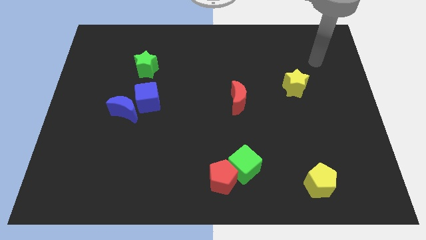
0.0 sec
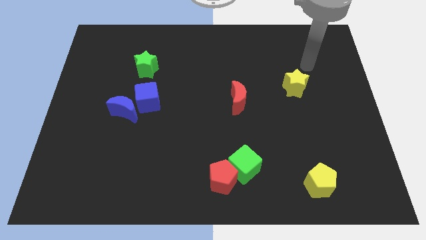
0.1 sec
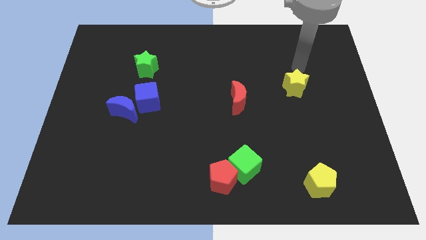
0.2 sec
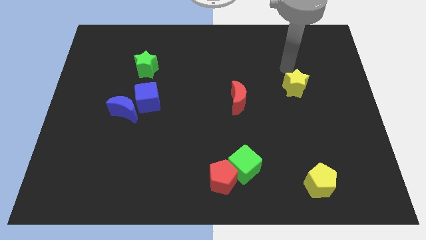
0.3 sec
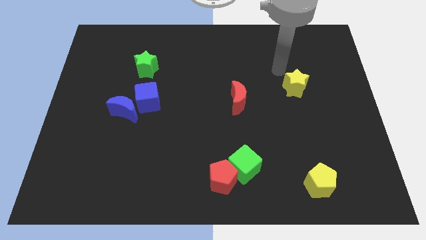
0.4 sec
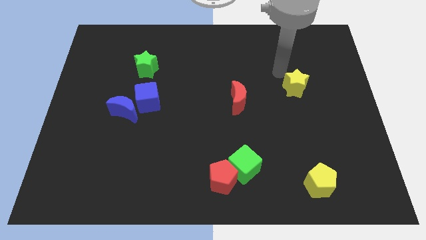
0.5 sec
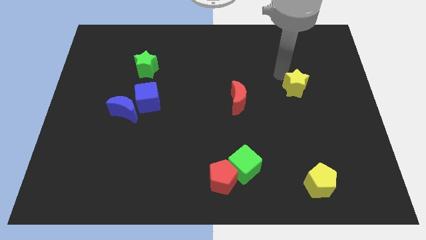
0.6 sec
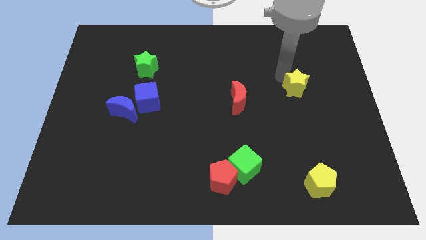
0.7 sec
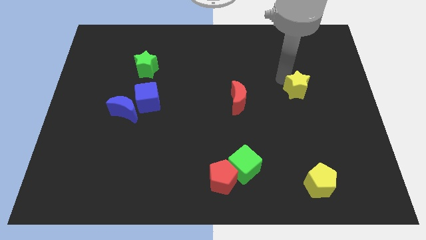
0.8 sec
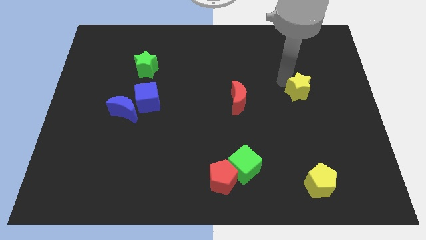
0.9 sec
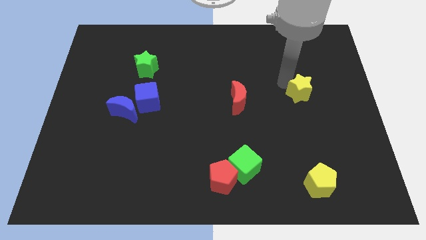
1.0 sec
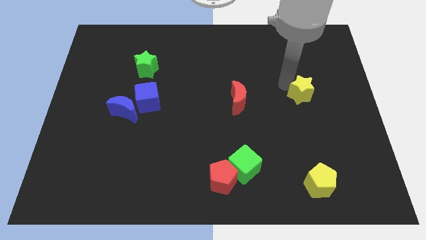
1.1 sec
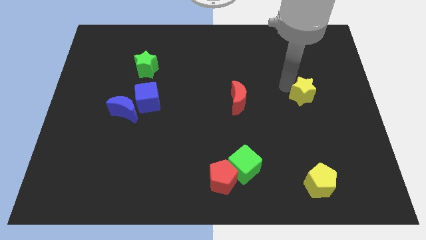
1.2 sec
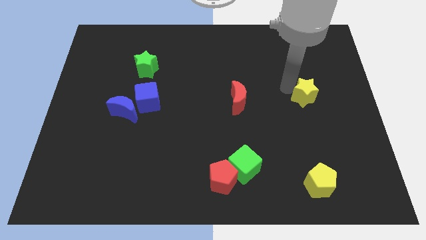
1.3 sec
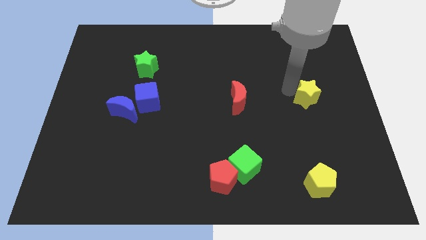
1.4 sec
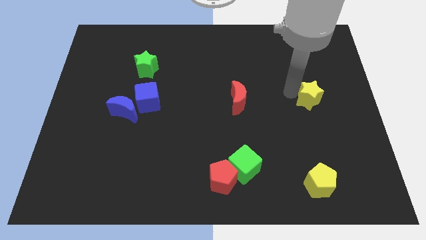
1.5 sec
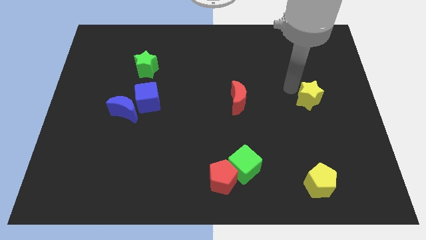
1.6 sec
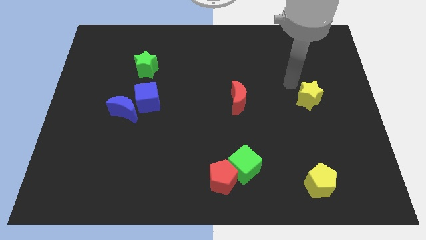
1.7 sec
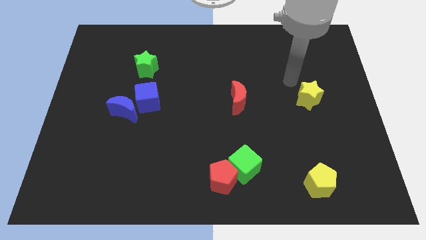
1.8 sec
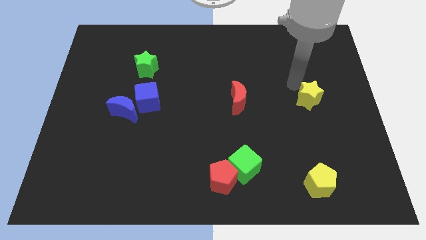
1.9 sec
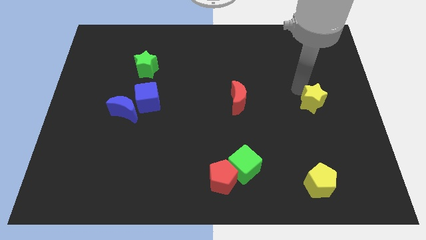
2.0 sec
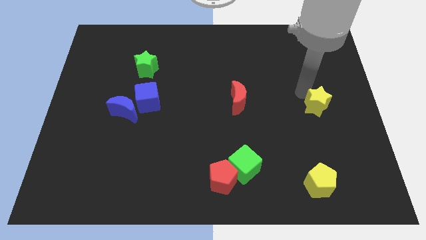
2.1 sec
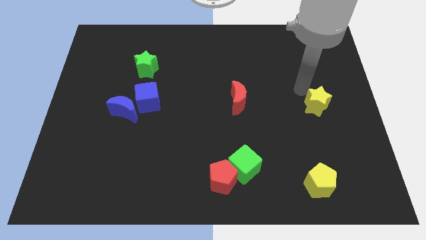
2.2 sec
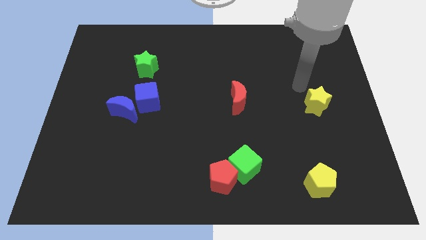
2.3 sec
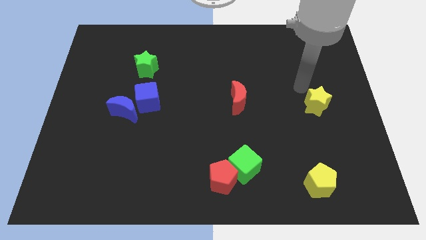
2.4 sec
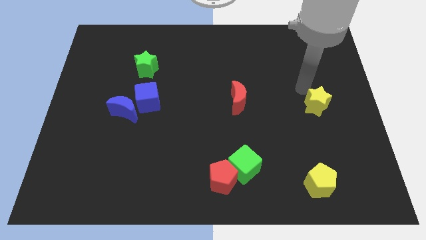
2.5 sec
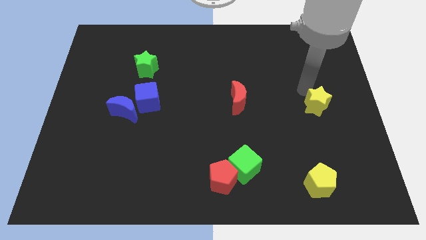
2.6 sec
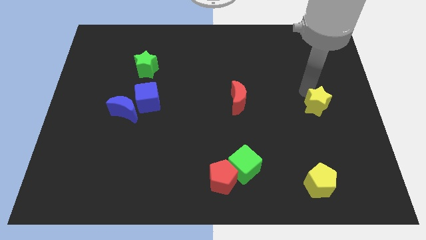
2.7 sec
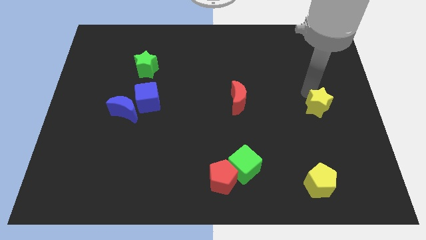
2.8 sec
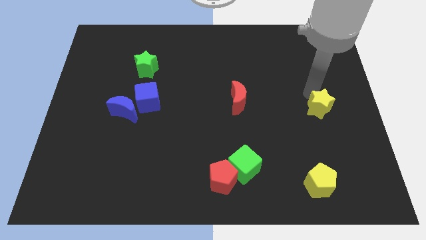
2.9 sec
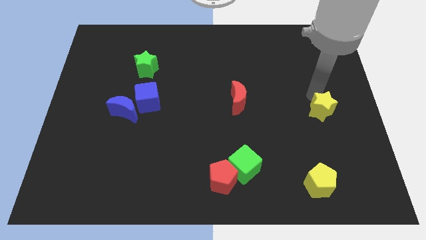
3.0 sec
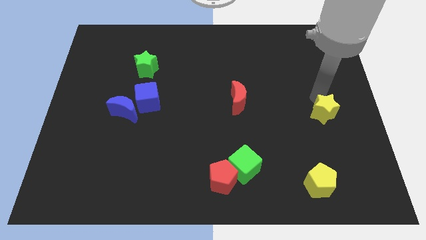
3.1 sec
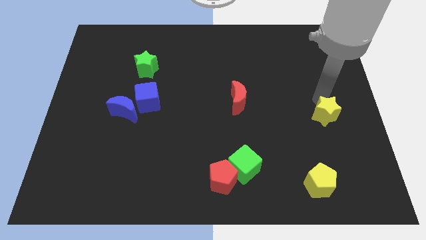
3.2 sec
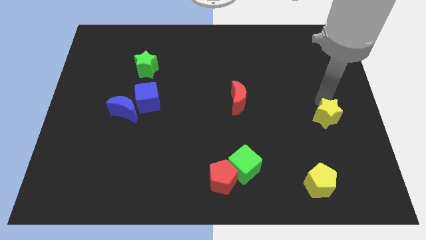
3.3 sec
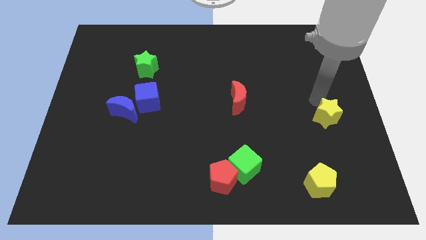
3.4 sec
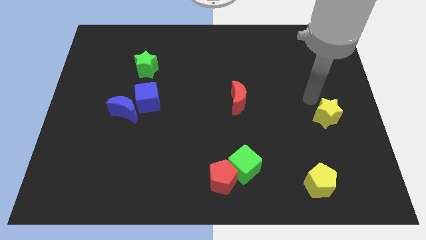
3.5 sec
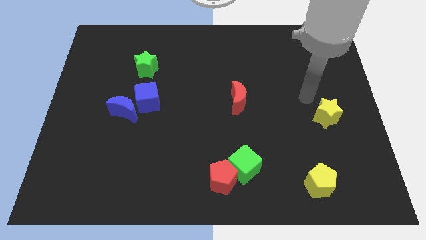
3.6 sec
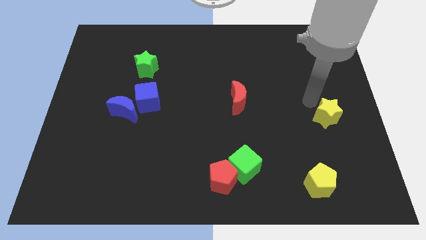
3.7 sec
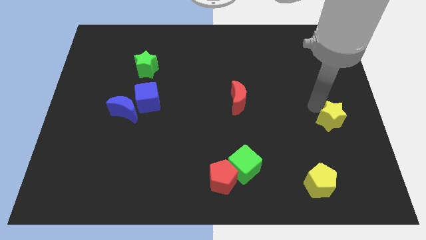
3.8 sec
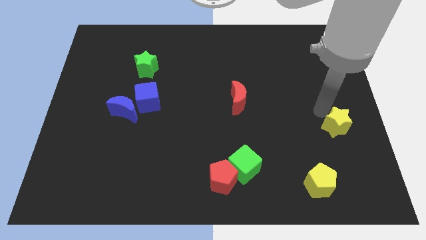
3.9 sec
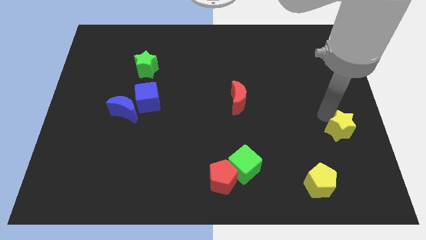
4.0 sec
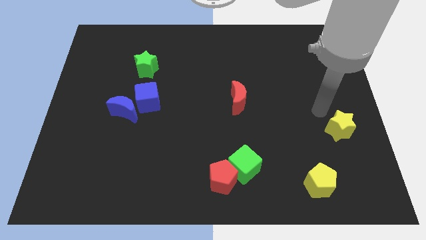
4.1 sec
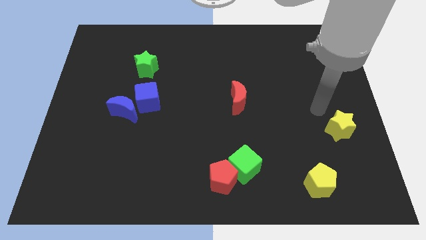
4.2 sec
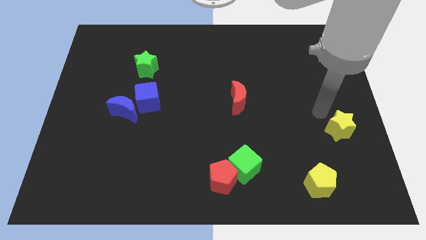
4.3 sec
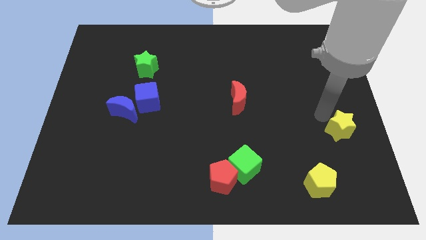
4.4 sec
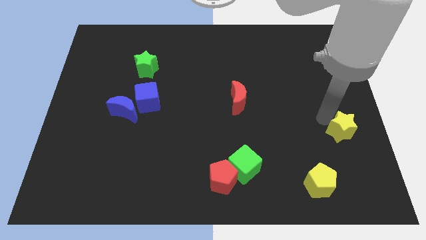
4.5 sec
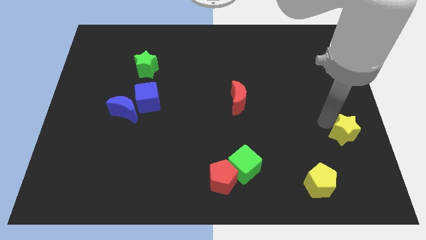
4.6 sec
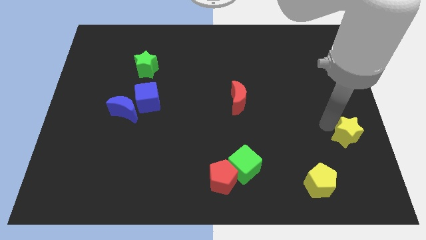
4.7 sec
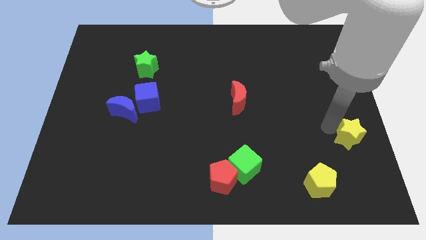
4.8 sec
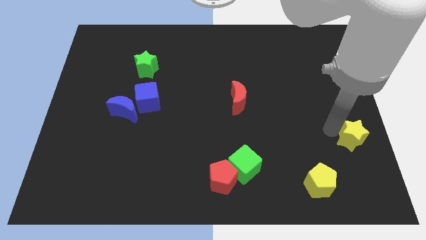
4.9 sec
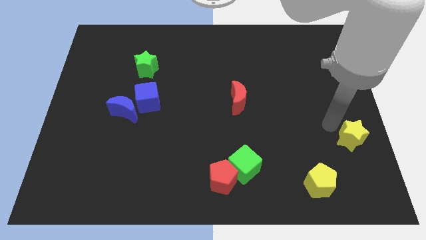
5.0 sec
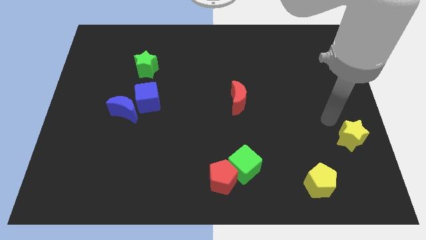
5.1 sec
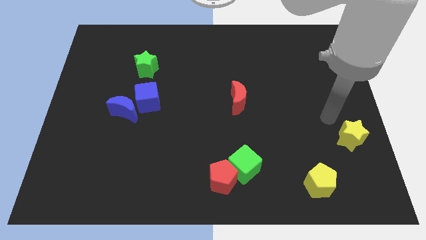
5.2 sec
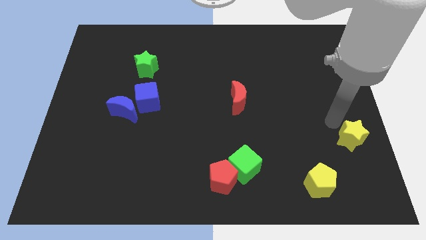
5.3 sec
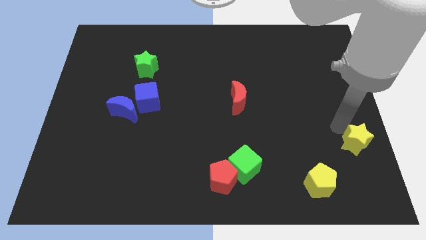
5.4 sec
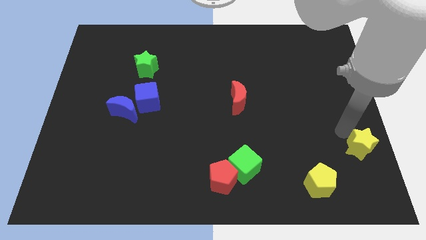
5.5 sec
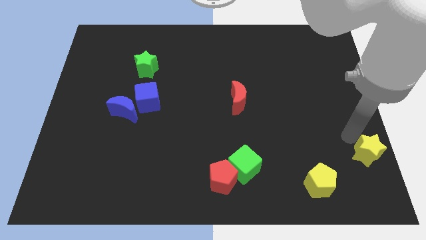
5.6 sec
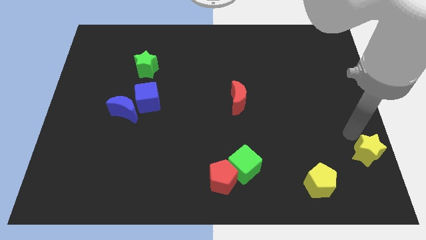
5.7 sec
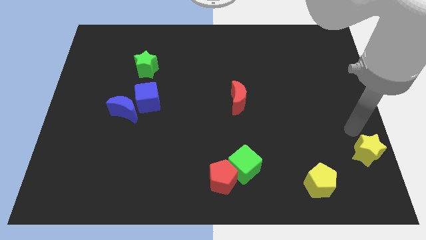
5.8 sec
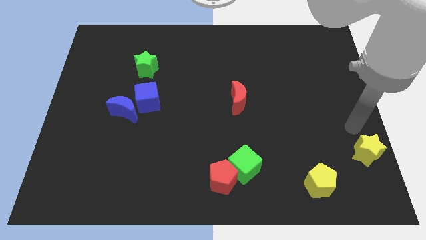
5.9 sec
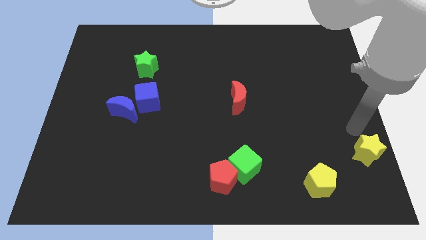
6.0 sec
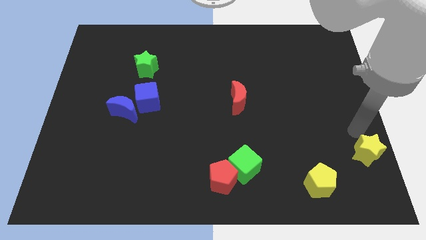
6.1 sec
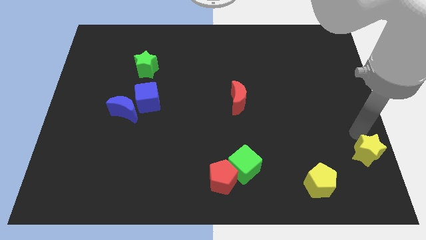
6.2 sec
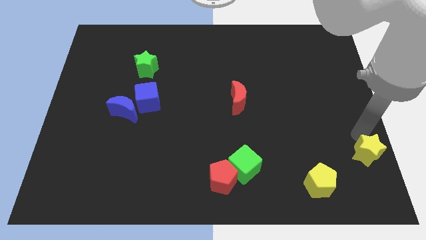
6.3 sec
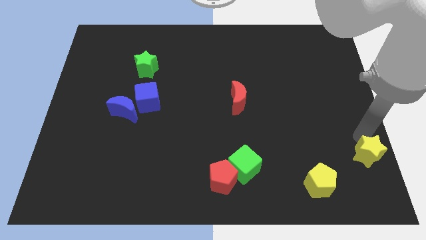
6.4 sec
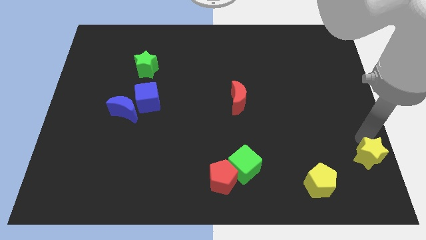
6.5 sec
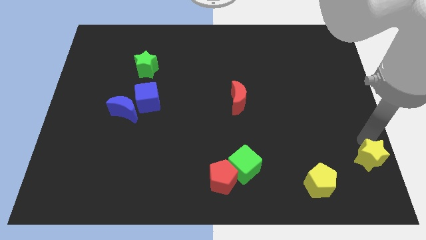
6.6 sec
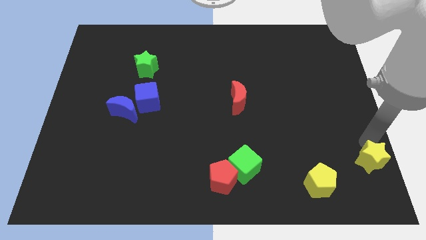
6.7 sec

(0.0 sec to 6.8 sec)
slide the yellow star to the bottom right corner
